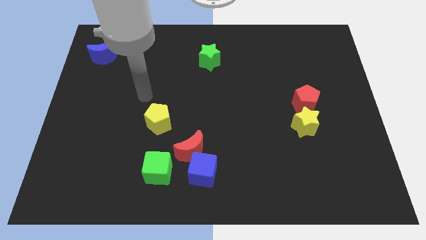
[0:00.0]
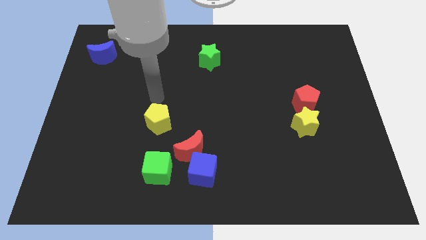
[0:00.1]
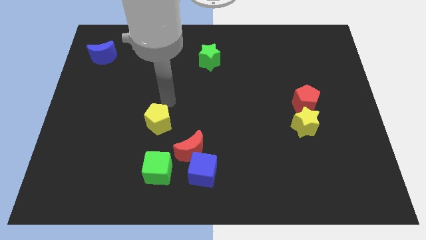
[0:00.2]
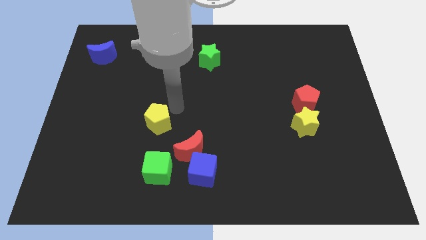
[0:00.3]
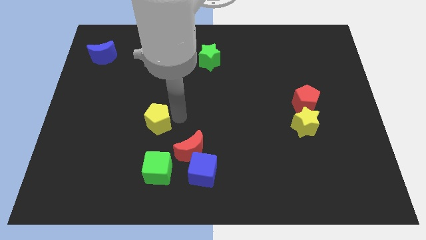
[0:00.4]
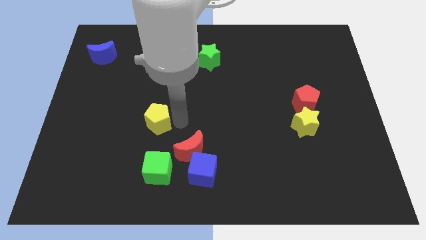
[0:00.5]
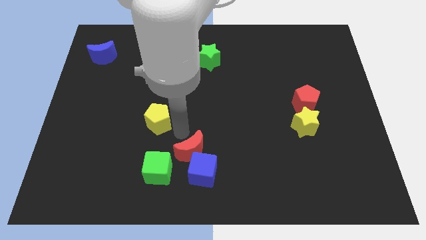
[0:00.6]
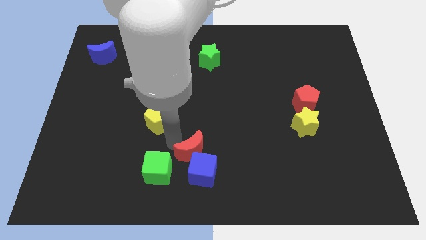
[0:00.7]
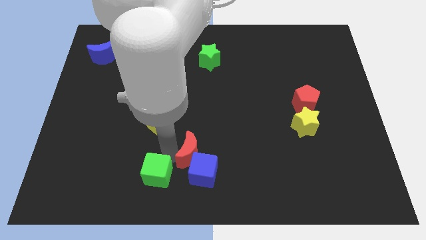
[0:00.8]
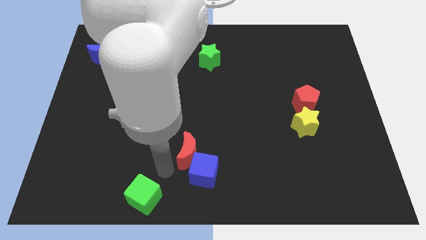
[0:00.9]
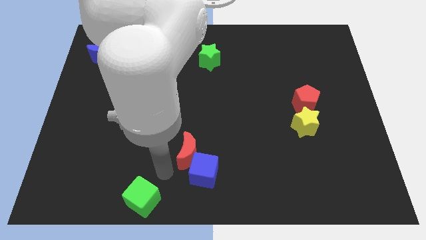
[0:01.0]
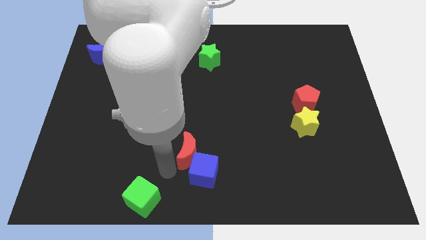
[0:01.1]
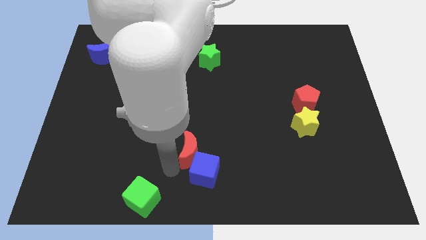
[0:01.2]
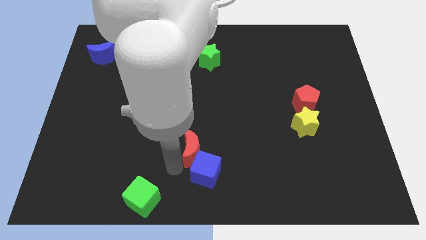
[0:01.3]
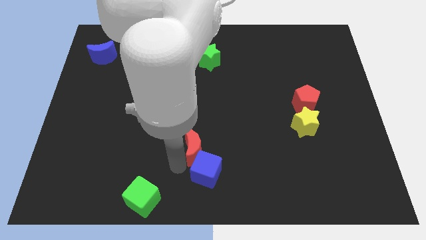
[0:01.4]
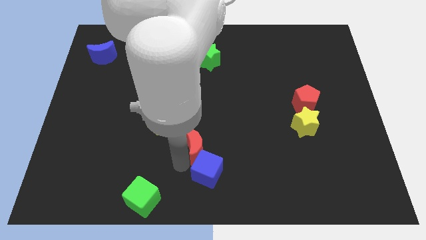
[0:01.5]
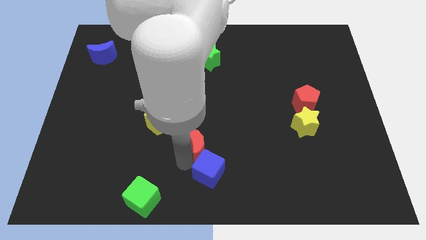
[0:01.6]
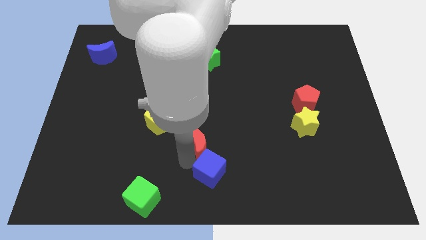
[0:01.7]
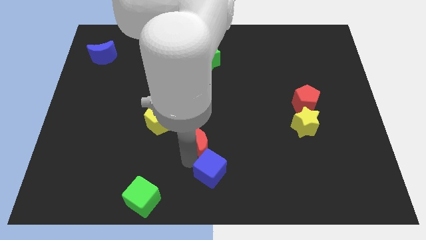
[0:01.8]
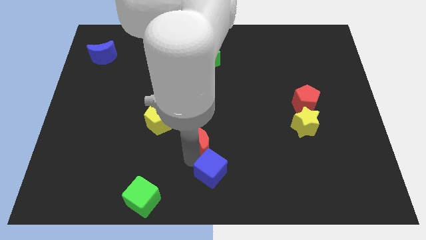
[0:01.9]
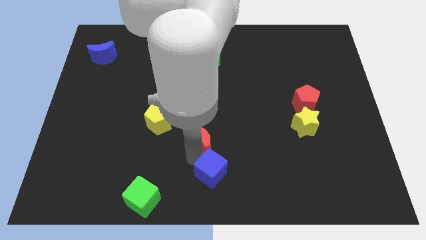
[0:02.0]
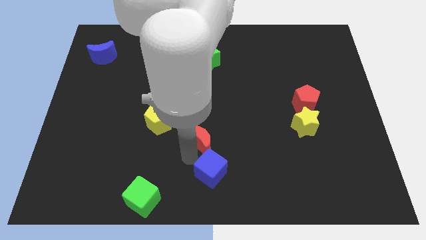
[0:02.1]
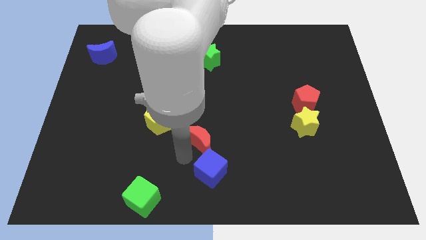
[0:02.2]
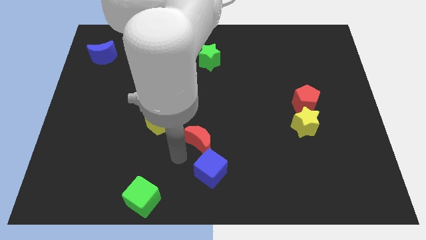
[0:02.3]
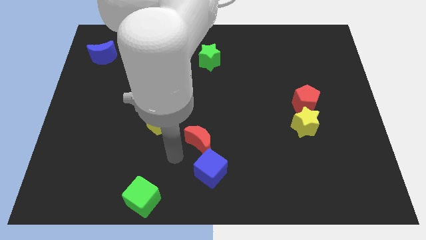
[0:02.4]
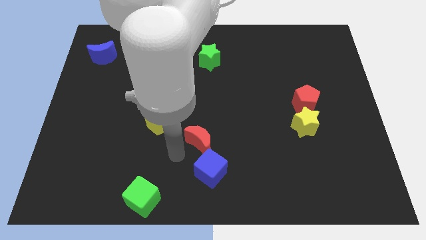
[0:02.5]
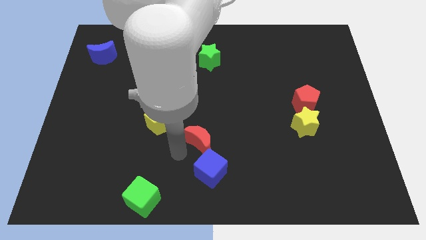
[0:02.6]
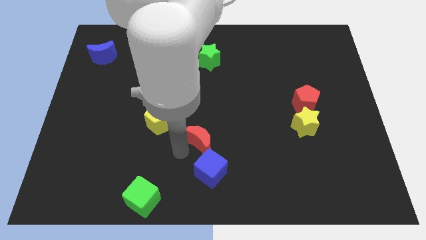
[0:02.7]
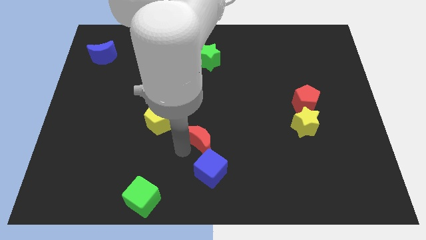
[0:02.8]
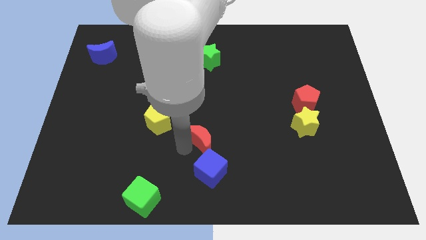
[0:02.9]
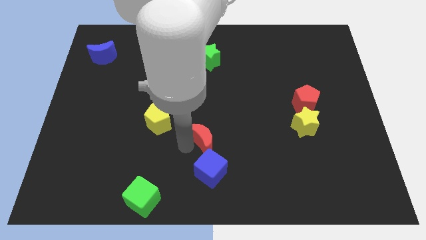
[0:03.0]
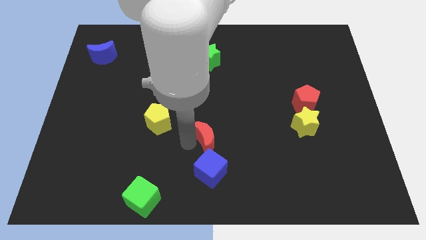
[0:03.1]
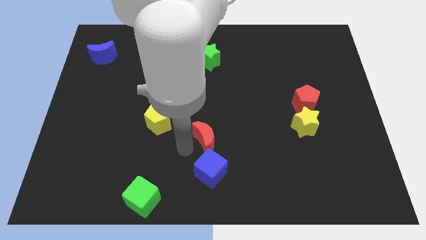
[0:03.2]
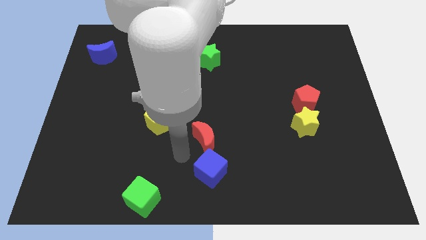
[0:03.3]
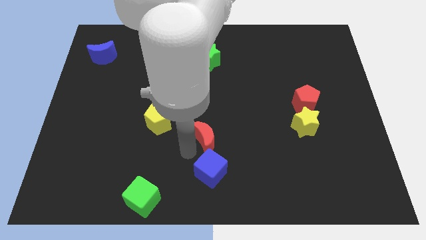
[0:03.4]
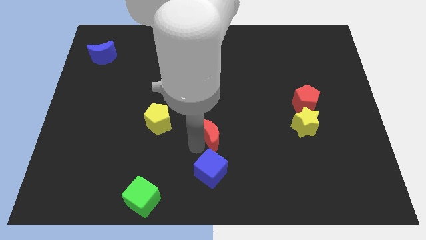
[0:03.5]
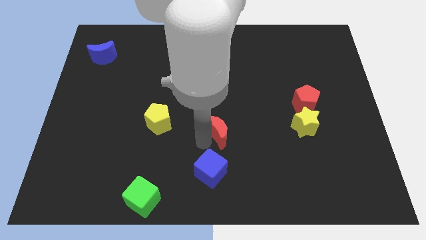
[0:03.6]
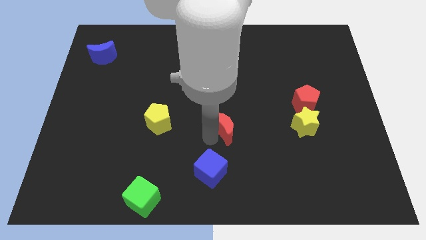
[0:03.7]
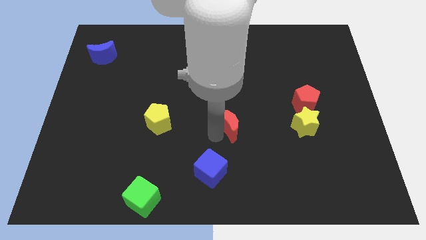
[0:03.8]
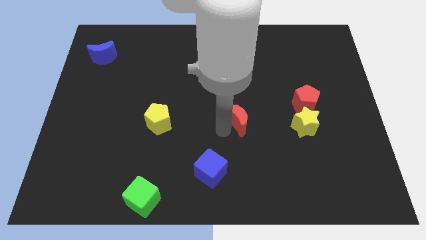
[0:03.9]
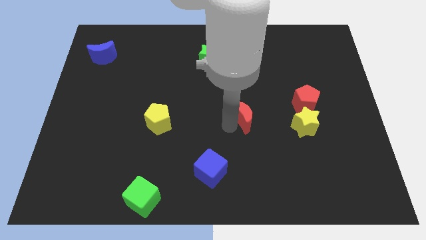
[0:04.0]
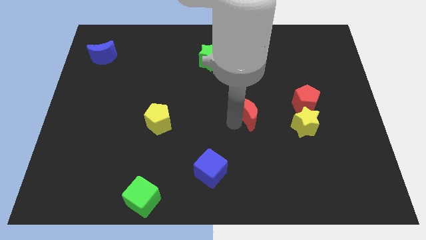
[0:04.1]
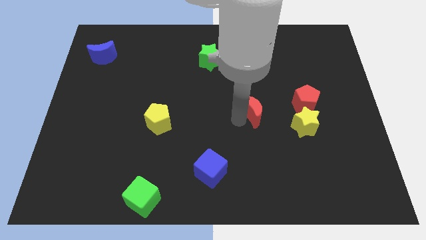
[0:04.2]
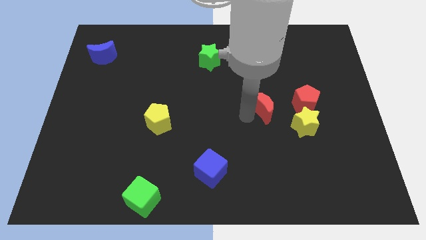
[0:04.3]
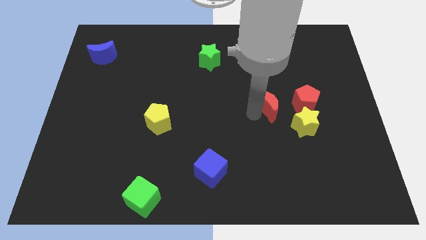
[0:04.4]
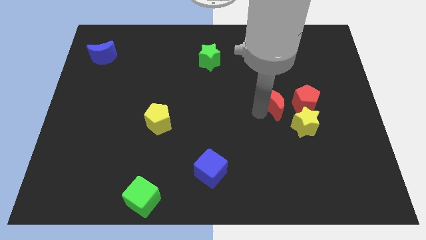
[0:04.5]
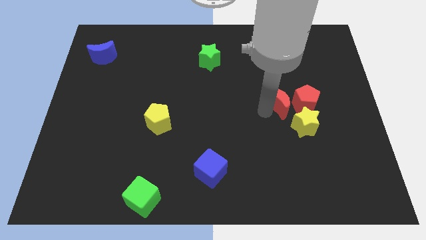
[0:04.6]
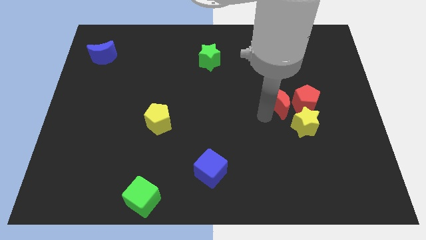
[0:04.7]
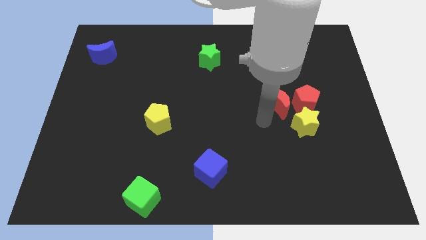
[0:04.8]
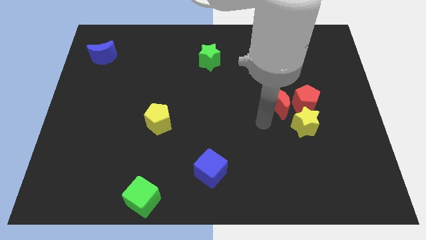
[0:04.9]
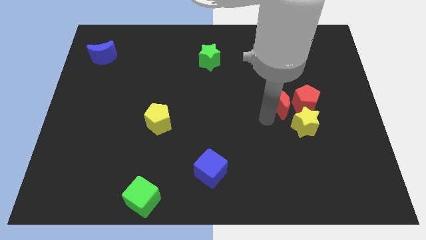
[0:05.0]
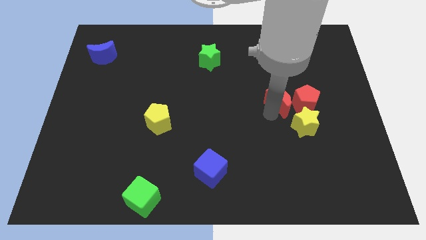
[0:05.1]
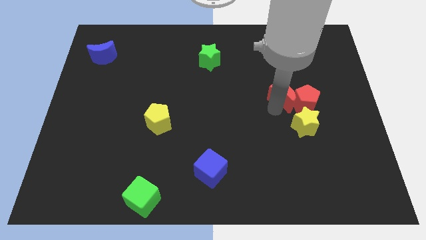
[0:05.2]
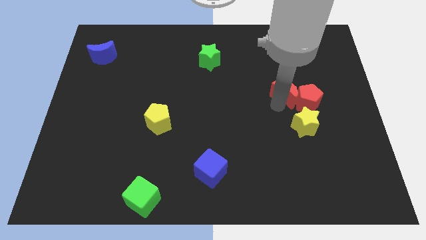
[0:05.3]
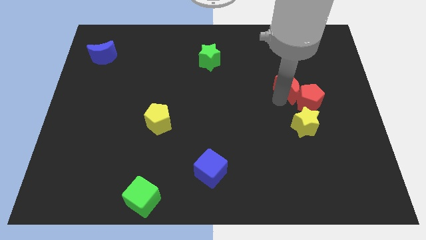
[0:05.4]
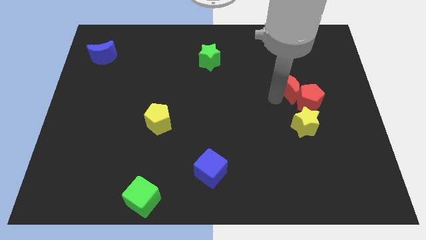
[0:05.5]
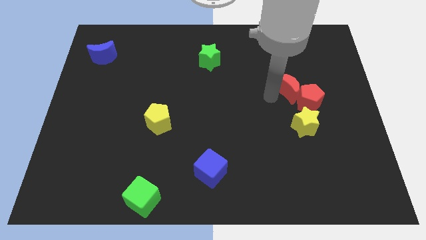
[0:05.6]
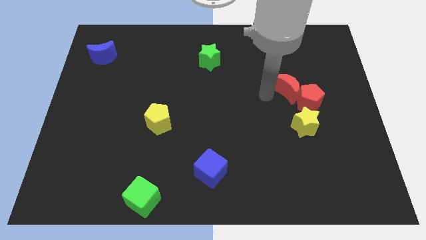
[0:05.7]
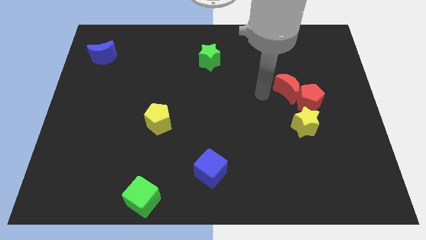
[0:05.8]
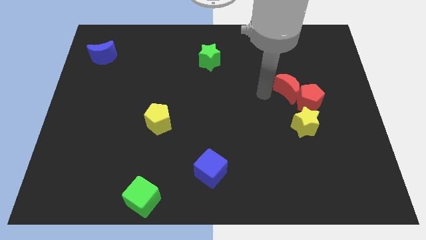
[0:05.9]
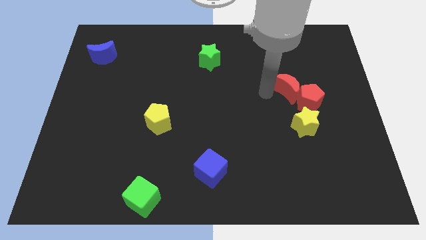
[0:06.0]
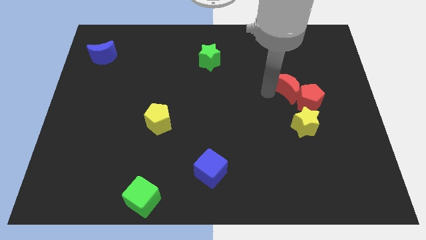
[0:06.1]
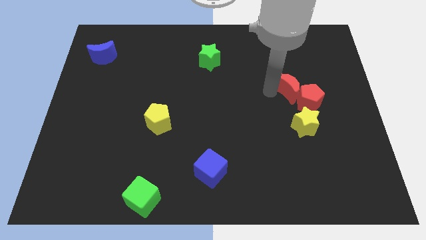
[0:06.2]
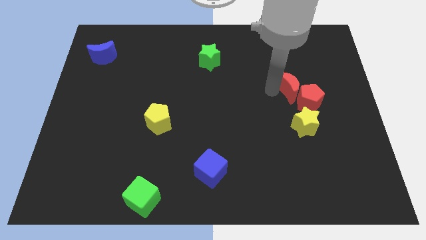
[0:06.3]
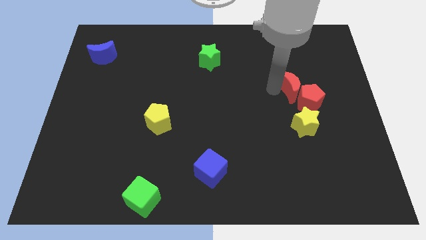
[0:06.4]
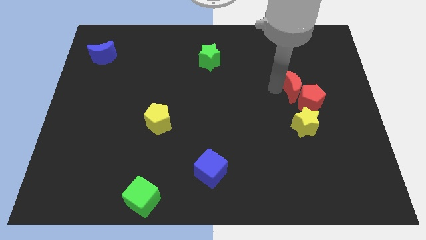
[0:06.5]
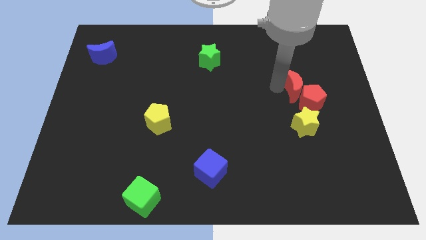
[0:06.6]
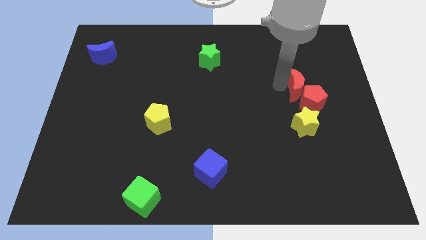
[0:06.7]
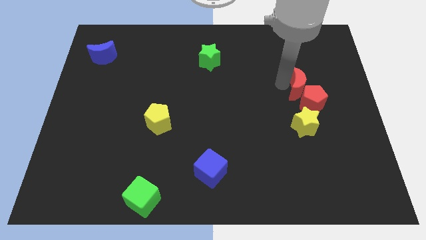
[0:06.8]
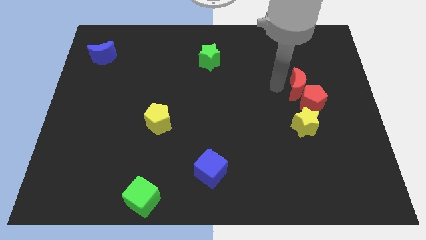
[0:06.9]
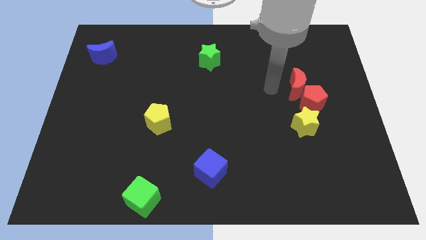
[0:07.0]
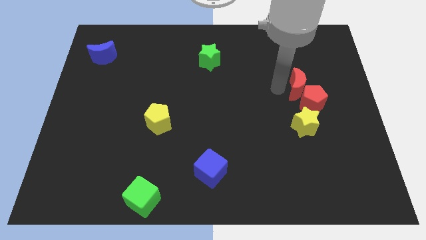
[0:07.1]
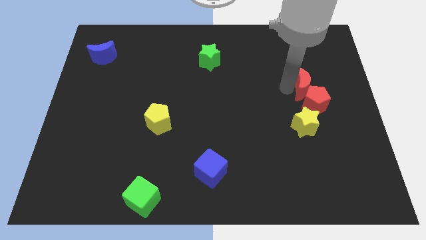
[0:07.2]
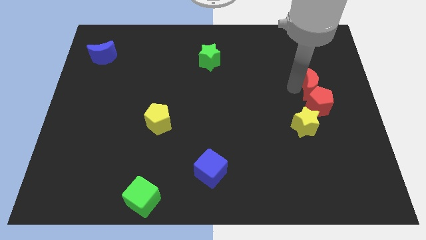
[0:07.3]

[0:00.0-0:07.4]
put the red moon to the top right of the red pentagon
